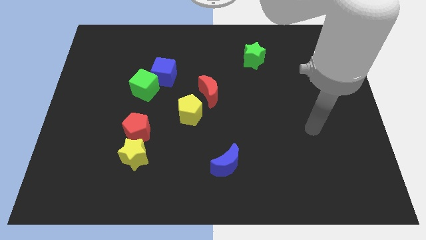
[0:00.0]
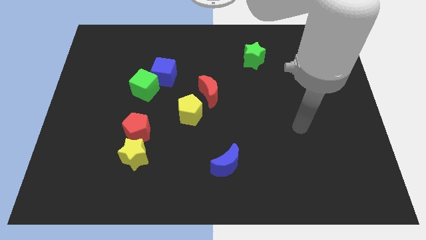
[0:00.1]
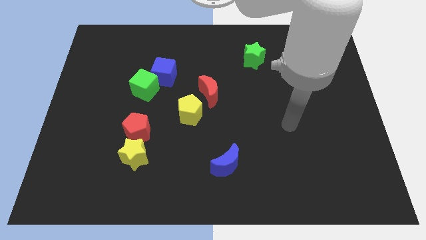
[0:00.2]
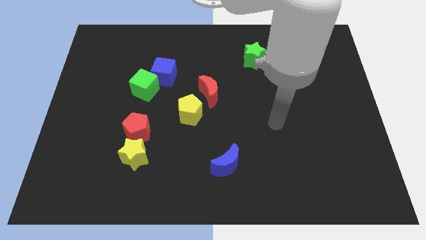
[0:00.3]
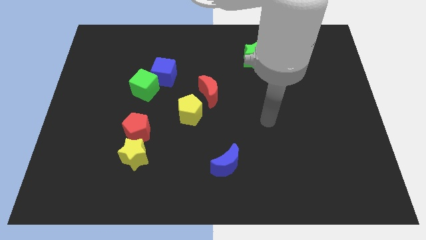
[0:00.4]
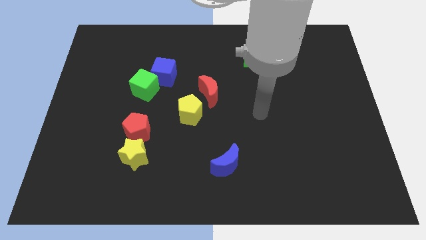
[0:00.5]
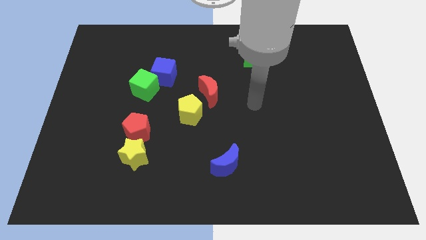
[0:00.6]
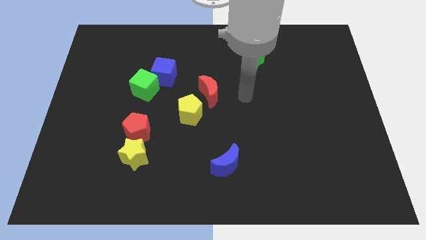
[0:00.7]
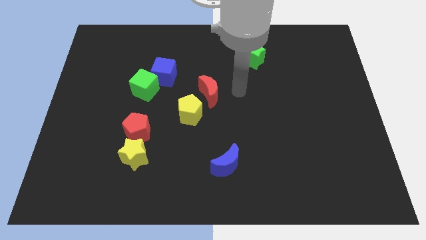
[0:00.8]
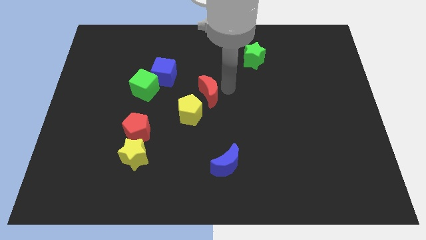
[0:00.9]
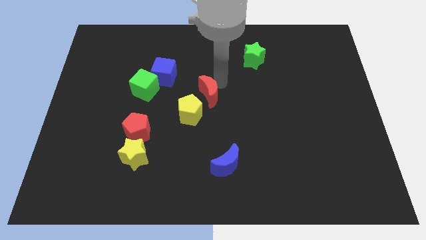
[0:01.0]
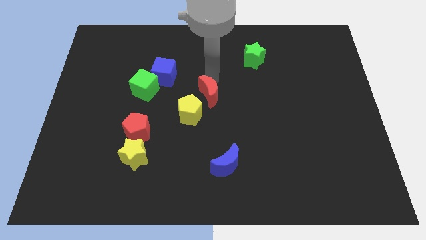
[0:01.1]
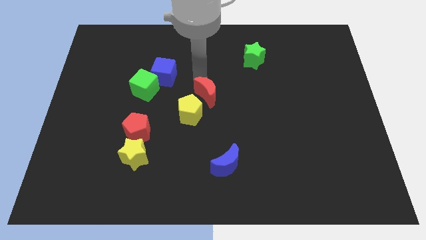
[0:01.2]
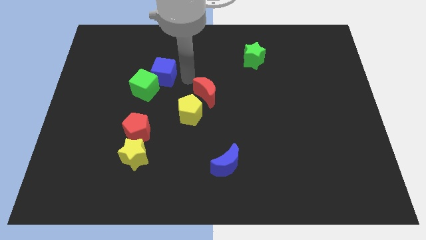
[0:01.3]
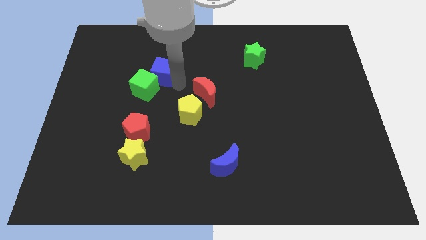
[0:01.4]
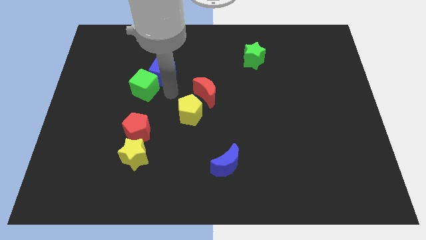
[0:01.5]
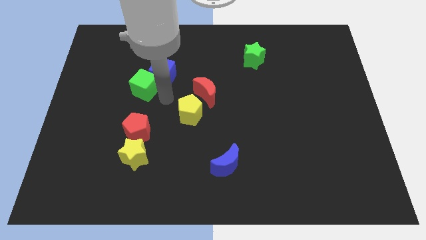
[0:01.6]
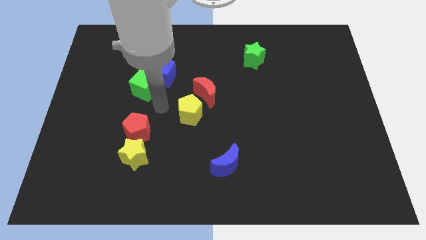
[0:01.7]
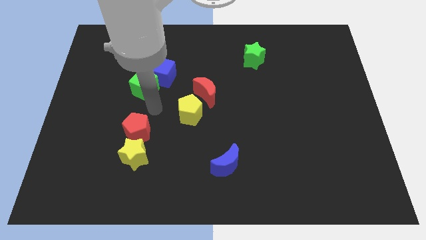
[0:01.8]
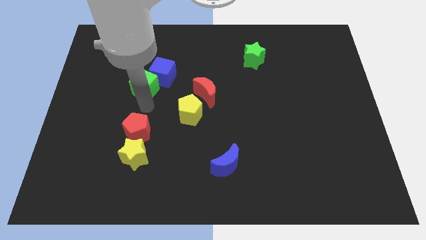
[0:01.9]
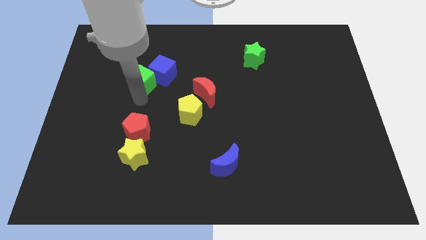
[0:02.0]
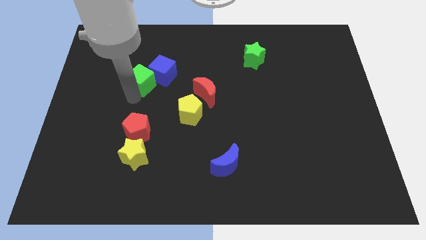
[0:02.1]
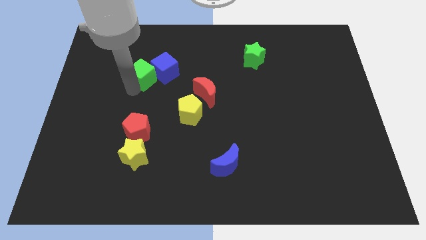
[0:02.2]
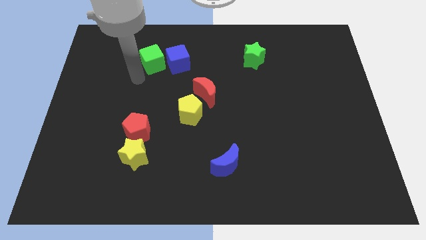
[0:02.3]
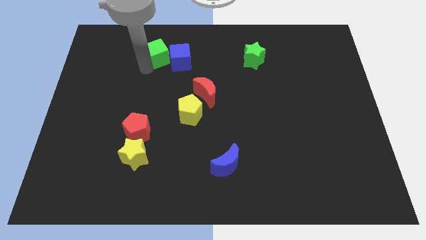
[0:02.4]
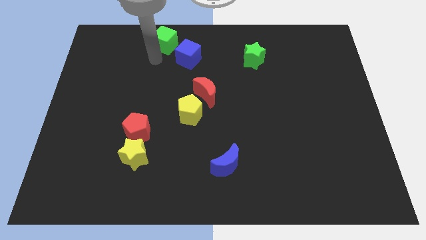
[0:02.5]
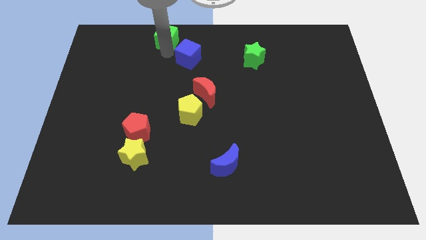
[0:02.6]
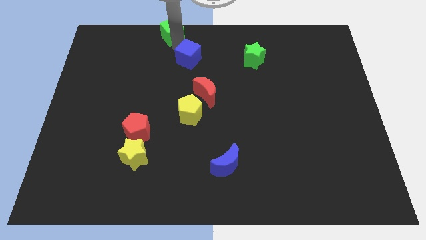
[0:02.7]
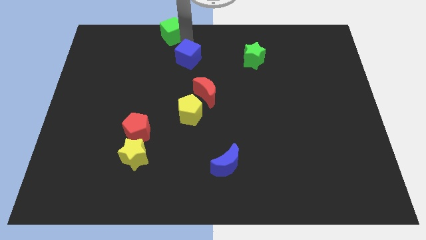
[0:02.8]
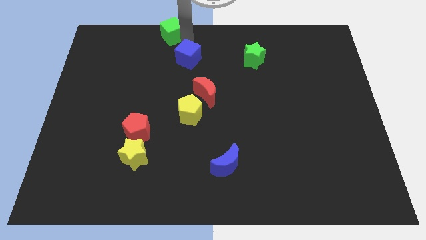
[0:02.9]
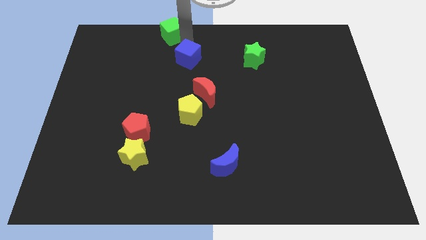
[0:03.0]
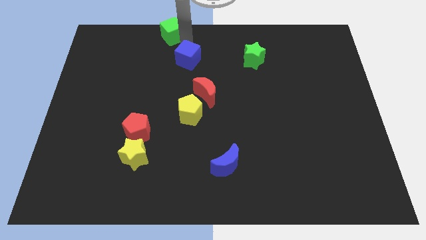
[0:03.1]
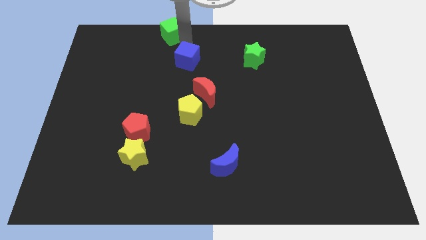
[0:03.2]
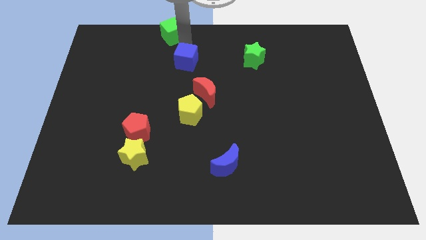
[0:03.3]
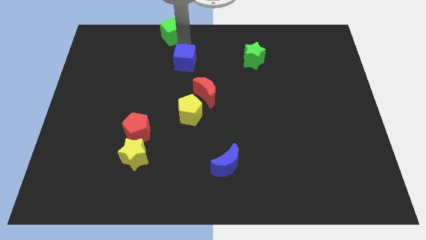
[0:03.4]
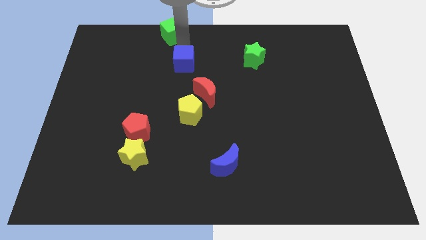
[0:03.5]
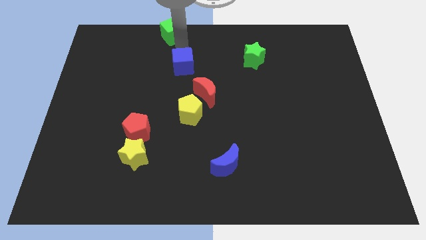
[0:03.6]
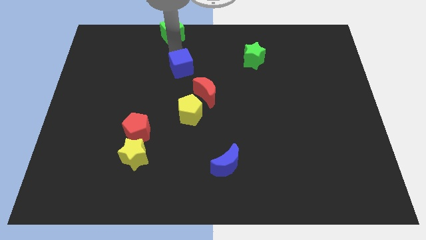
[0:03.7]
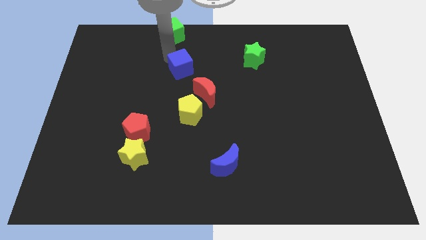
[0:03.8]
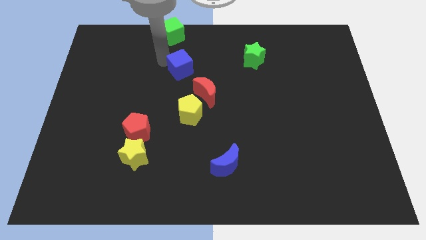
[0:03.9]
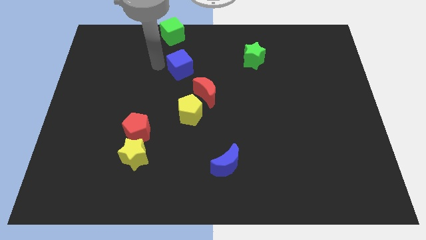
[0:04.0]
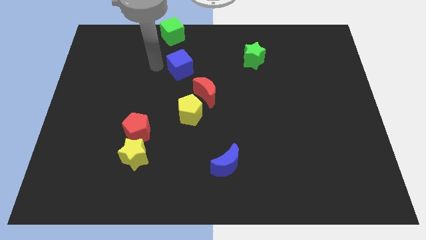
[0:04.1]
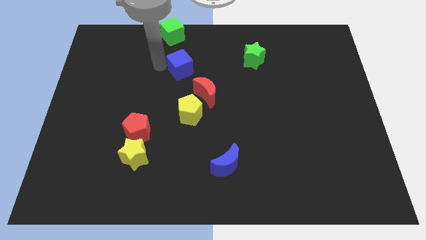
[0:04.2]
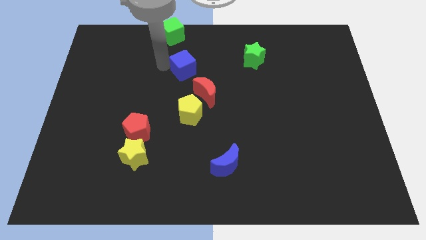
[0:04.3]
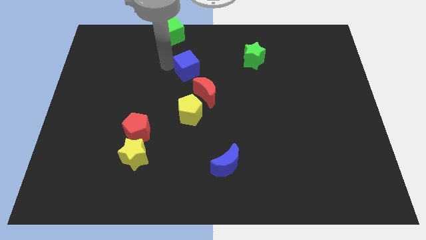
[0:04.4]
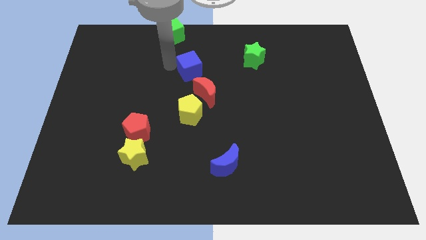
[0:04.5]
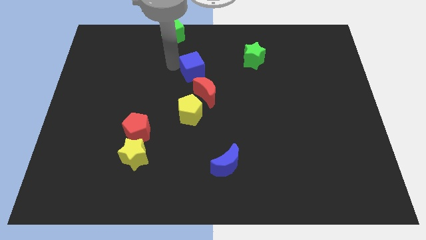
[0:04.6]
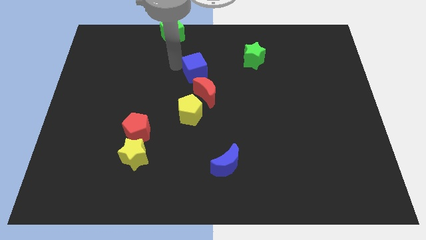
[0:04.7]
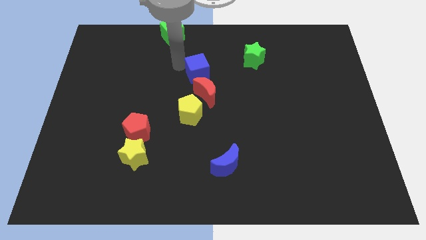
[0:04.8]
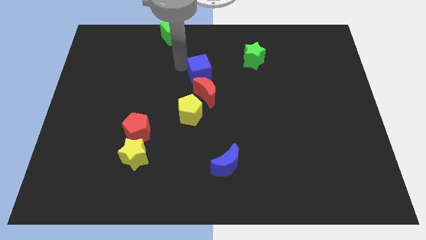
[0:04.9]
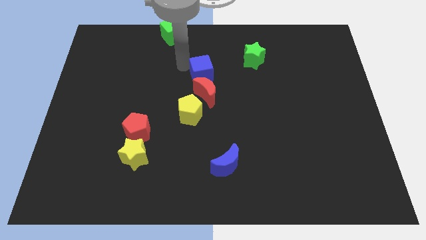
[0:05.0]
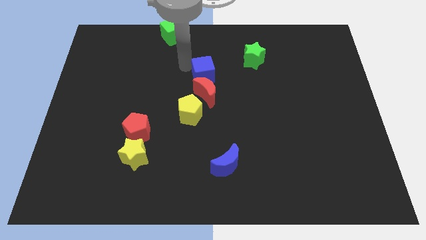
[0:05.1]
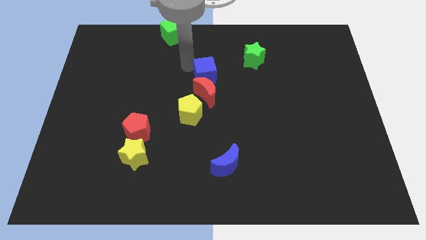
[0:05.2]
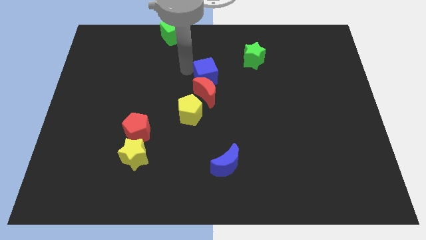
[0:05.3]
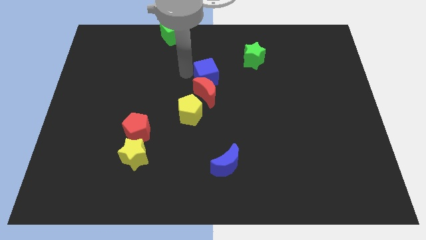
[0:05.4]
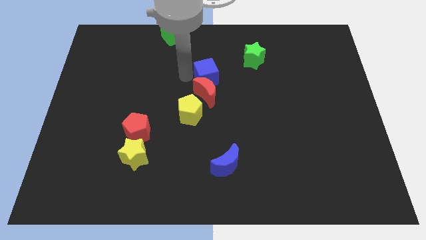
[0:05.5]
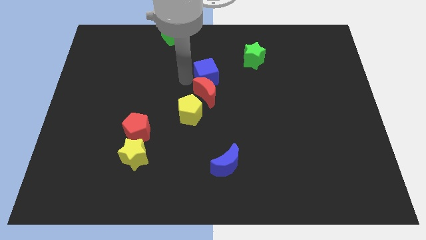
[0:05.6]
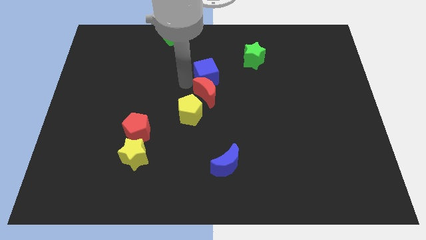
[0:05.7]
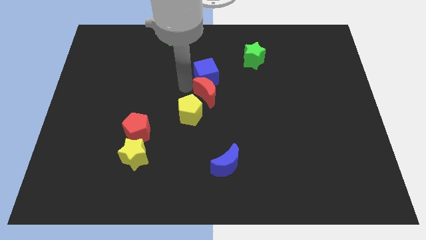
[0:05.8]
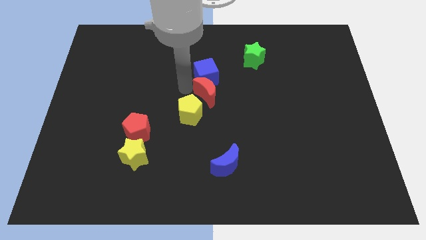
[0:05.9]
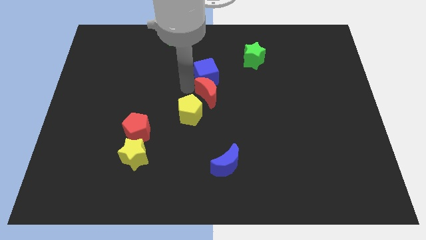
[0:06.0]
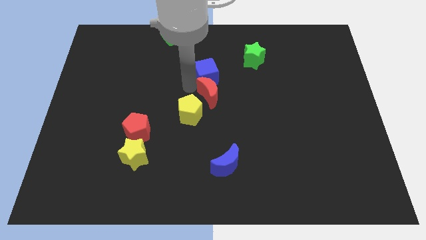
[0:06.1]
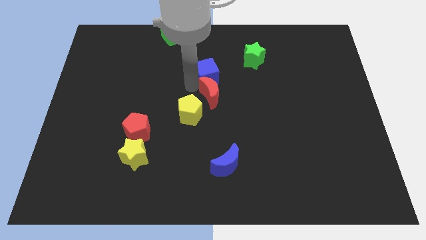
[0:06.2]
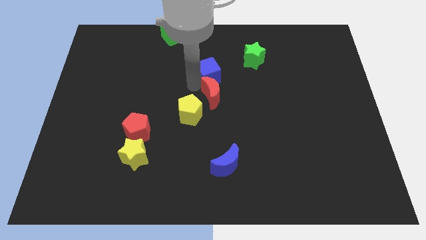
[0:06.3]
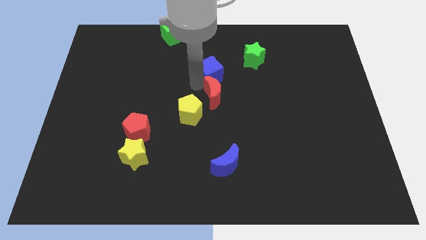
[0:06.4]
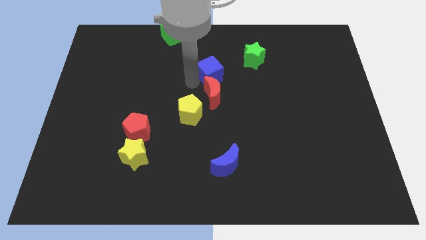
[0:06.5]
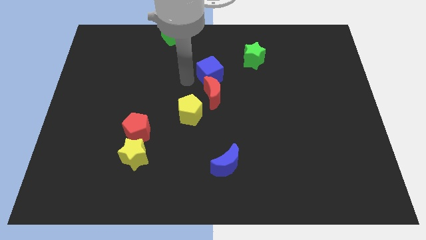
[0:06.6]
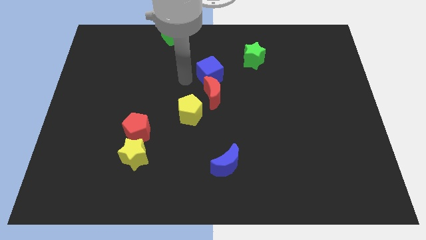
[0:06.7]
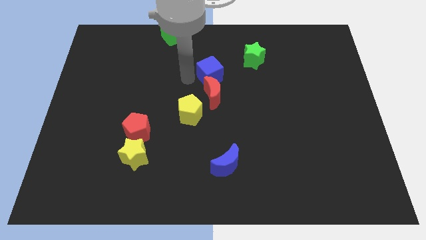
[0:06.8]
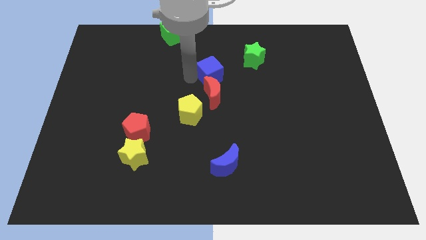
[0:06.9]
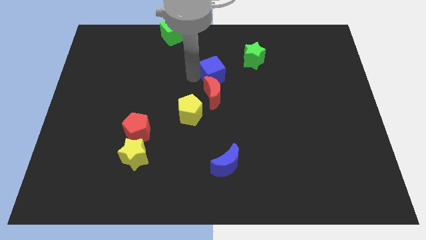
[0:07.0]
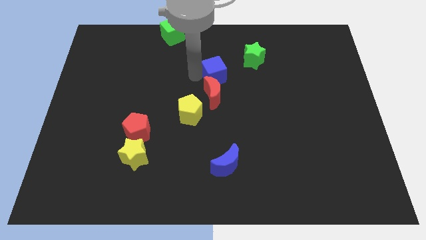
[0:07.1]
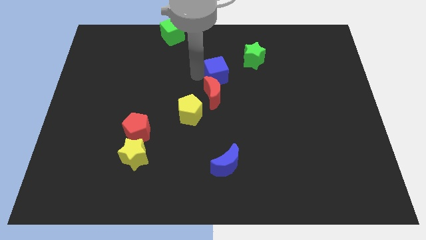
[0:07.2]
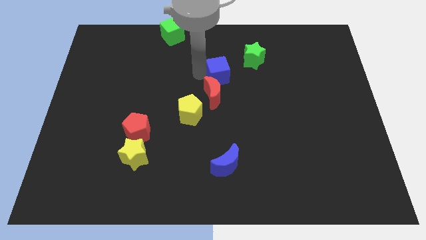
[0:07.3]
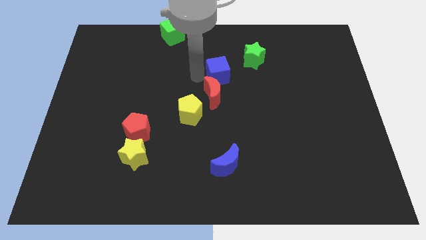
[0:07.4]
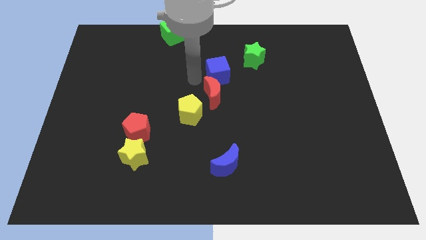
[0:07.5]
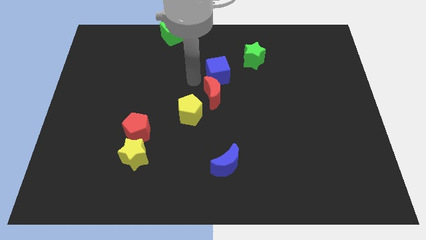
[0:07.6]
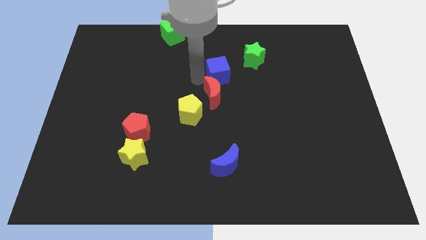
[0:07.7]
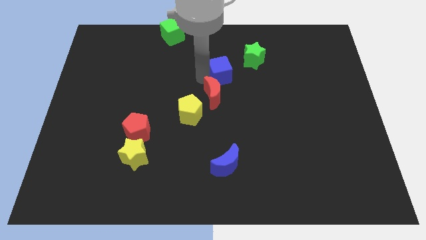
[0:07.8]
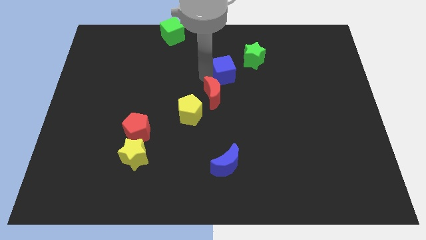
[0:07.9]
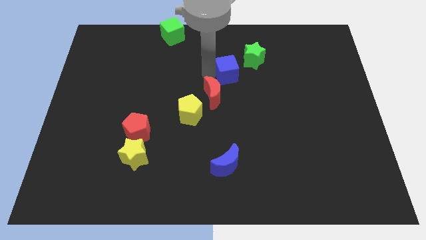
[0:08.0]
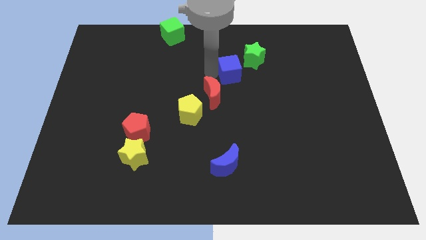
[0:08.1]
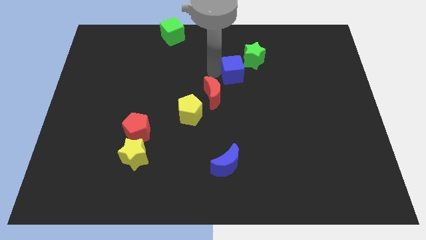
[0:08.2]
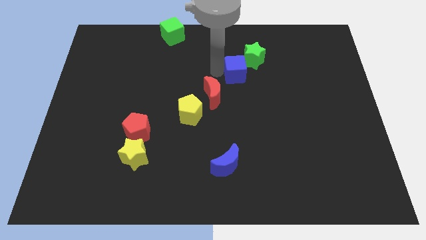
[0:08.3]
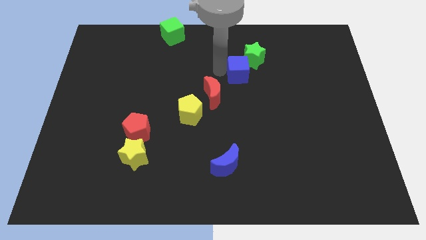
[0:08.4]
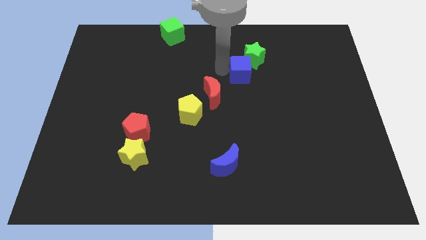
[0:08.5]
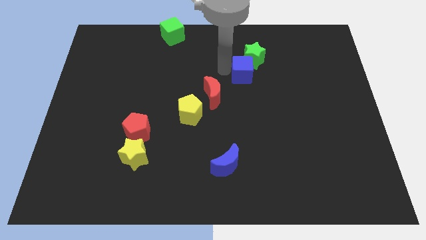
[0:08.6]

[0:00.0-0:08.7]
move the blue cube right
